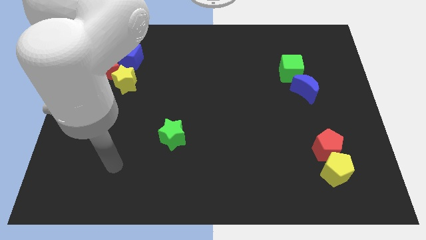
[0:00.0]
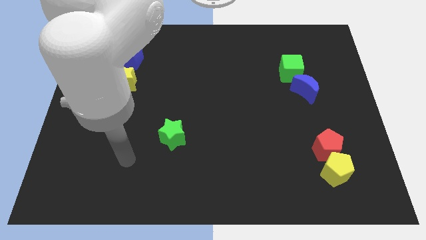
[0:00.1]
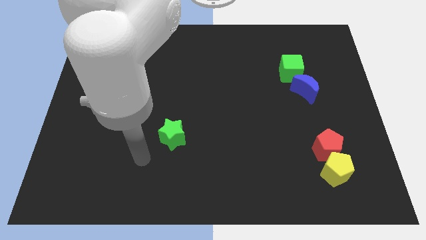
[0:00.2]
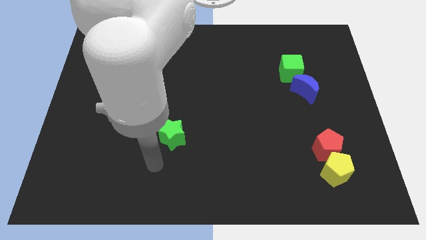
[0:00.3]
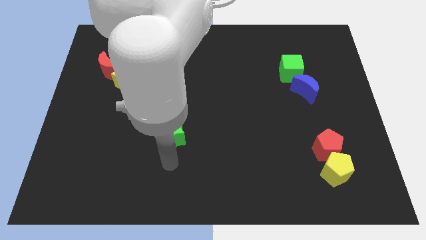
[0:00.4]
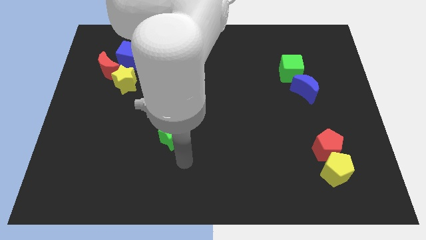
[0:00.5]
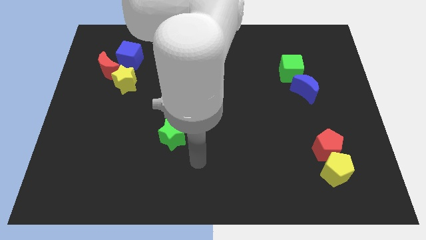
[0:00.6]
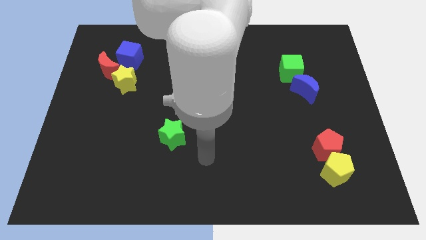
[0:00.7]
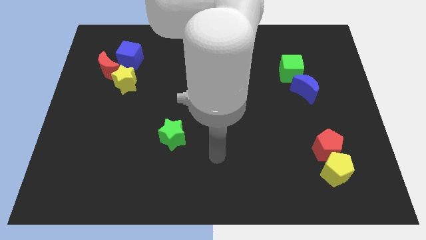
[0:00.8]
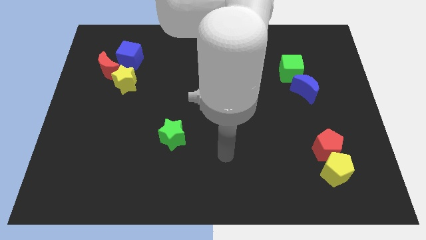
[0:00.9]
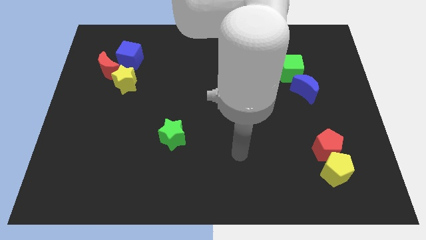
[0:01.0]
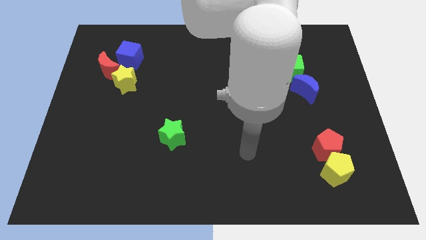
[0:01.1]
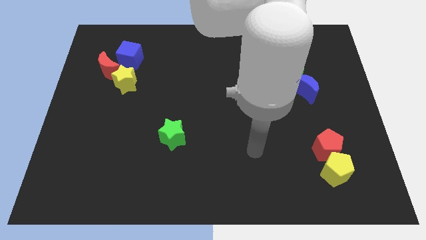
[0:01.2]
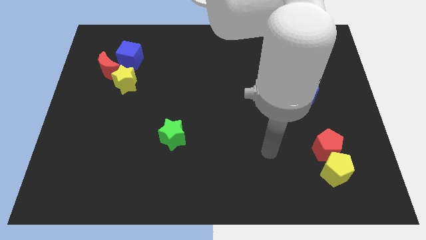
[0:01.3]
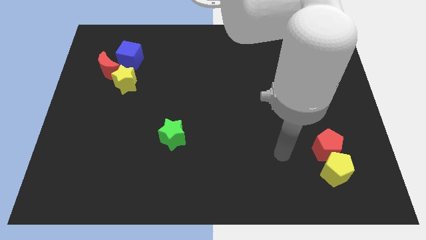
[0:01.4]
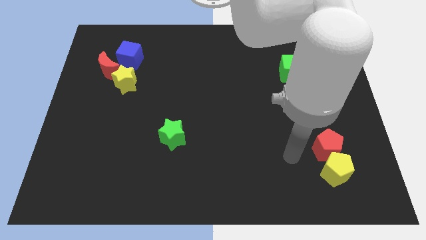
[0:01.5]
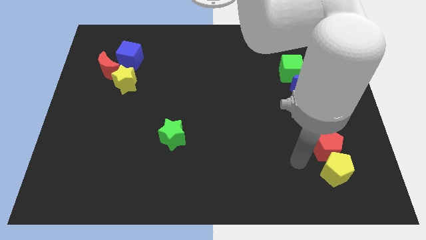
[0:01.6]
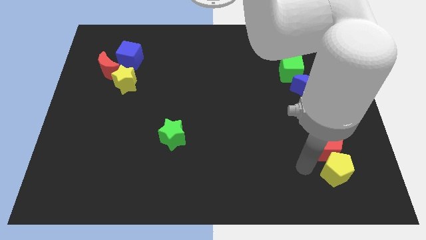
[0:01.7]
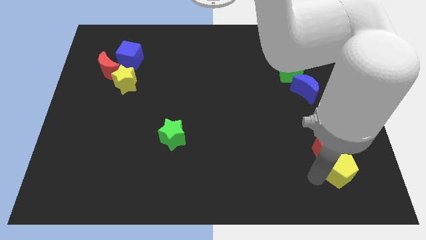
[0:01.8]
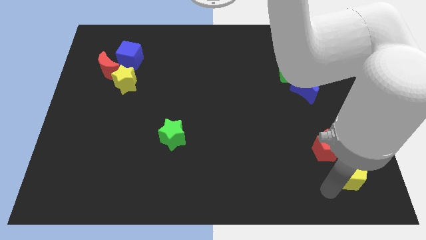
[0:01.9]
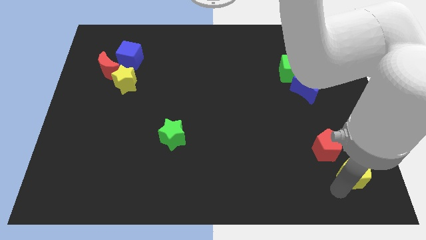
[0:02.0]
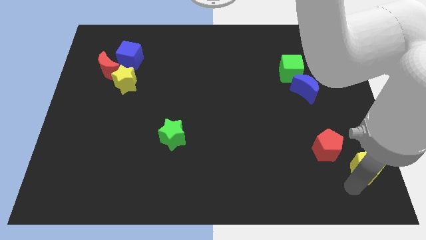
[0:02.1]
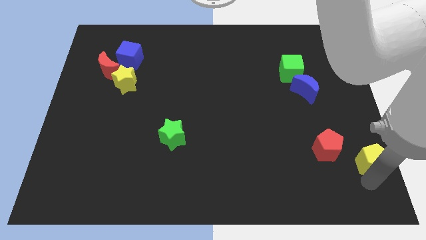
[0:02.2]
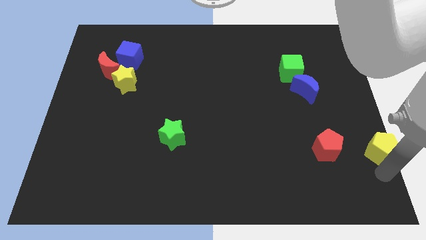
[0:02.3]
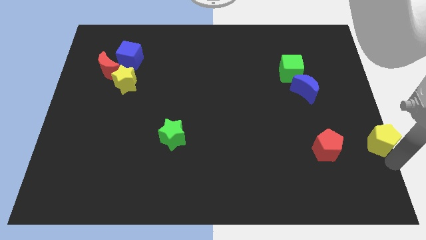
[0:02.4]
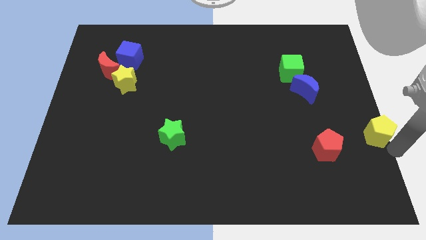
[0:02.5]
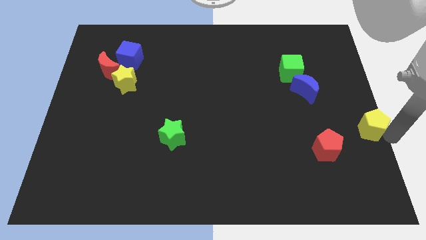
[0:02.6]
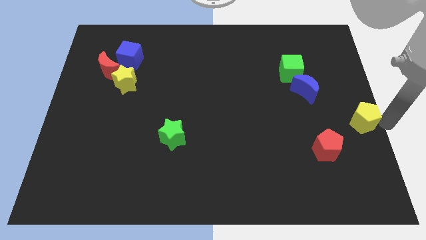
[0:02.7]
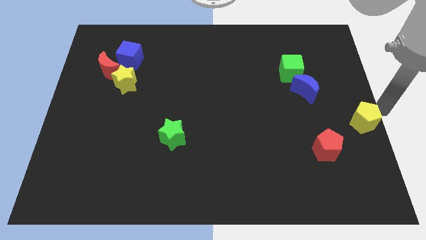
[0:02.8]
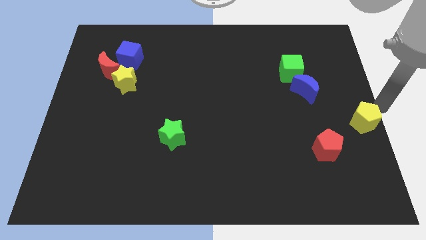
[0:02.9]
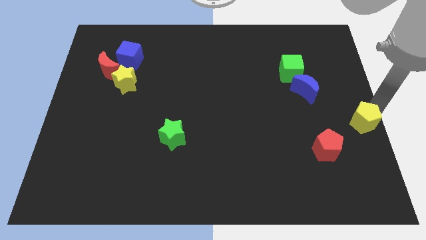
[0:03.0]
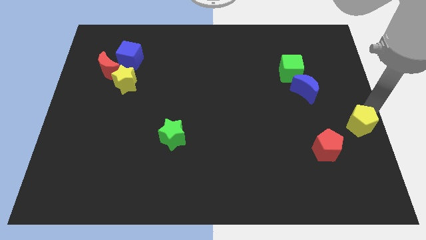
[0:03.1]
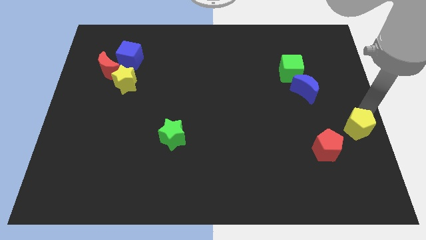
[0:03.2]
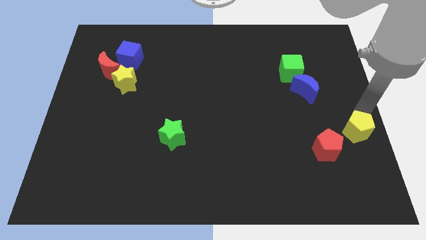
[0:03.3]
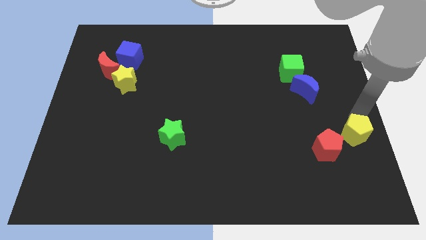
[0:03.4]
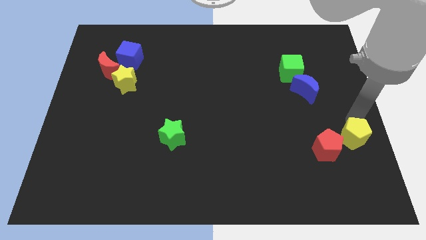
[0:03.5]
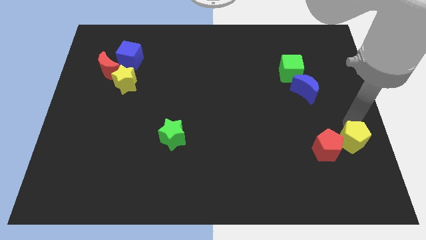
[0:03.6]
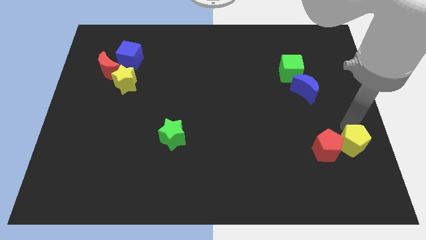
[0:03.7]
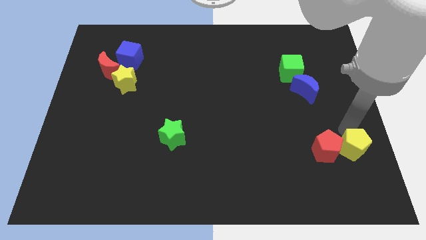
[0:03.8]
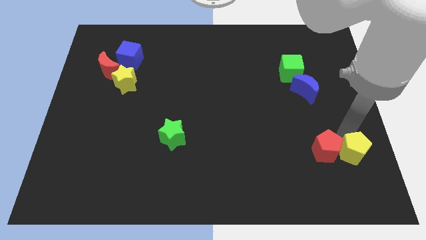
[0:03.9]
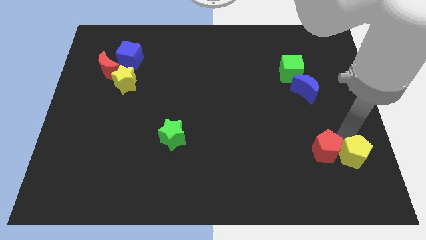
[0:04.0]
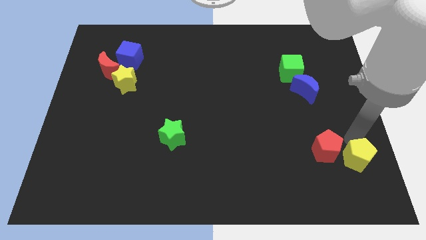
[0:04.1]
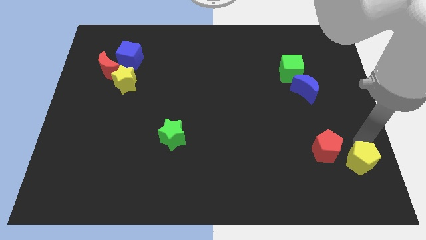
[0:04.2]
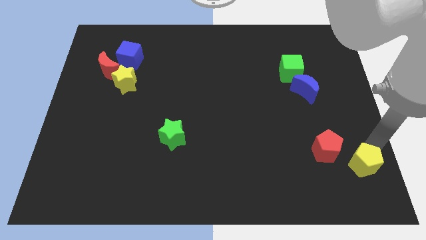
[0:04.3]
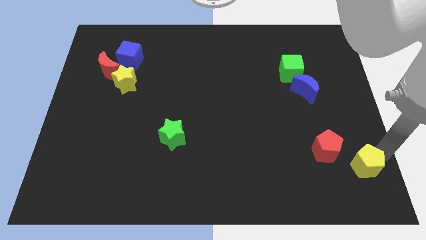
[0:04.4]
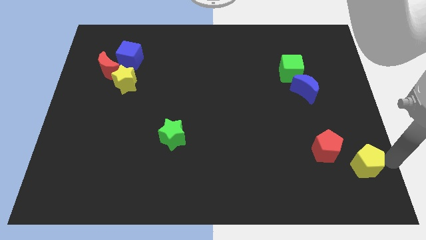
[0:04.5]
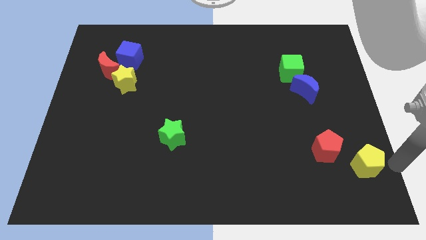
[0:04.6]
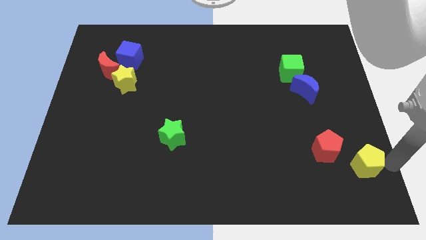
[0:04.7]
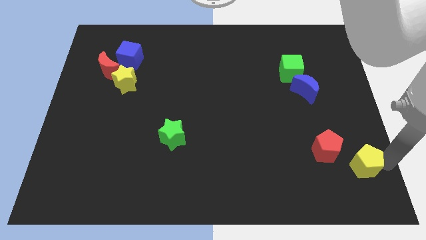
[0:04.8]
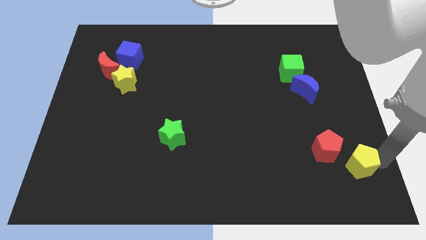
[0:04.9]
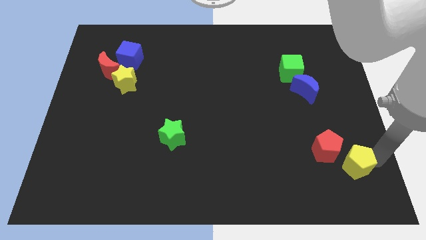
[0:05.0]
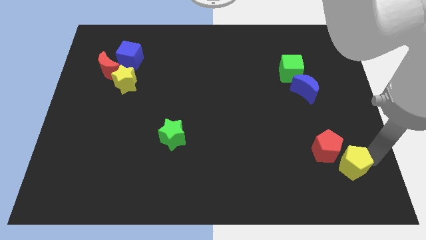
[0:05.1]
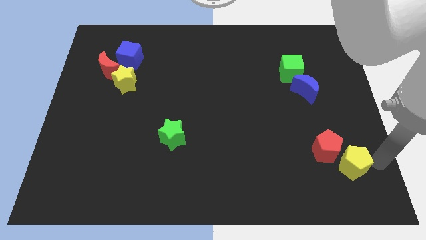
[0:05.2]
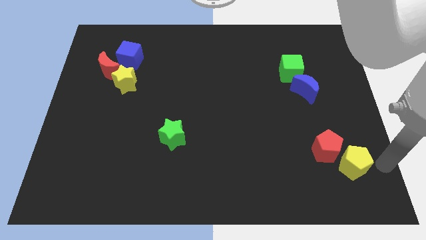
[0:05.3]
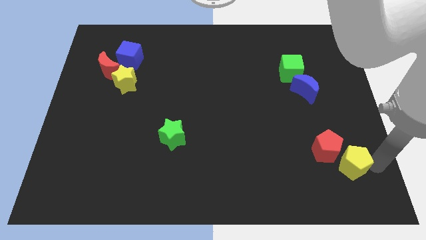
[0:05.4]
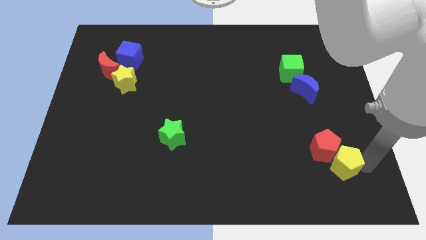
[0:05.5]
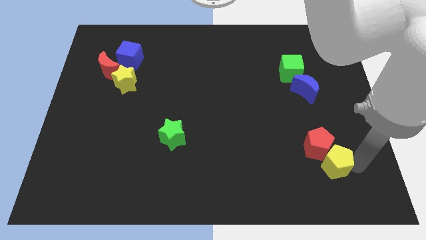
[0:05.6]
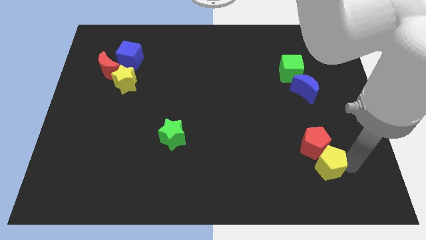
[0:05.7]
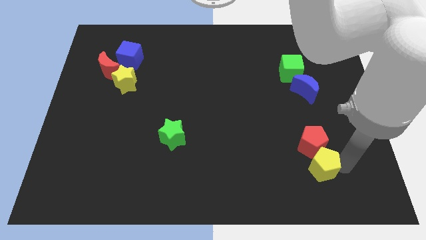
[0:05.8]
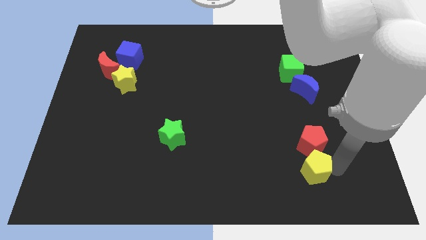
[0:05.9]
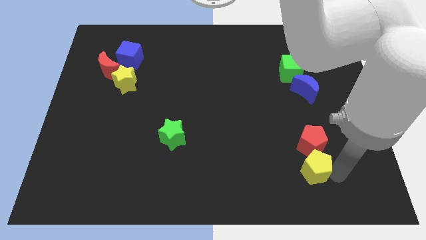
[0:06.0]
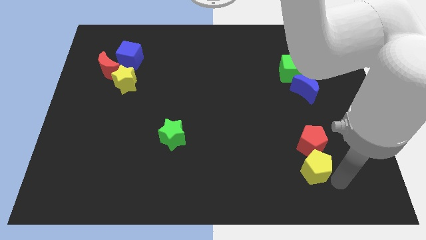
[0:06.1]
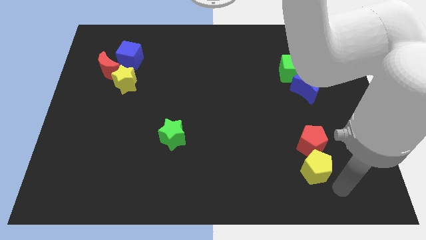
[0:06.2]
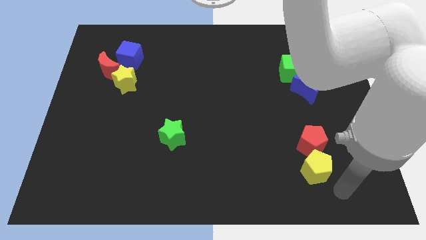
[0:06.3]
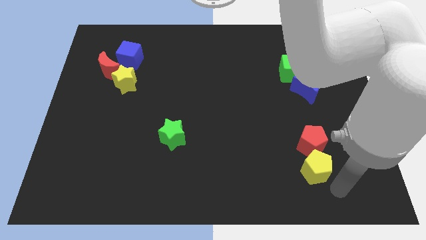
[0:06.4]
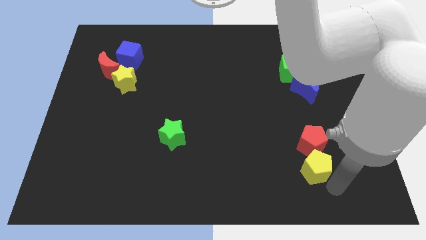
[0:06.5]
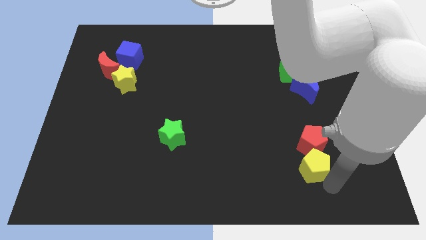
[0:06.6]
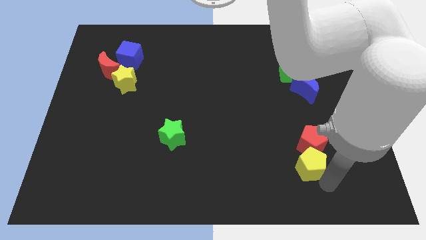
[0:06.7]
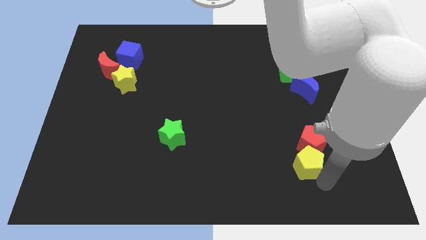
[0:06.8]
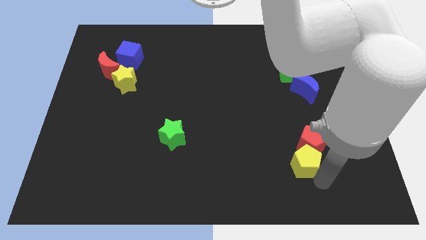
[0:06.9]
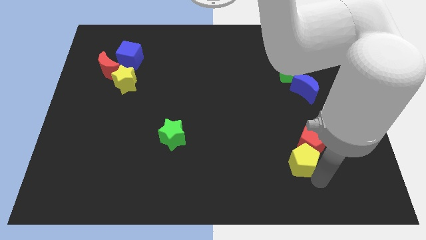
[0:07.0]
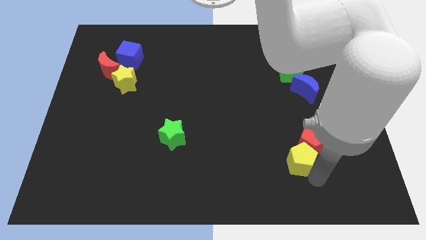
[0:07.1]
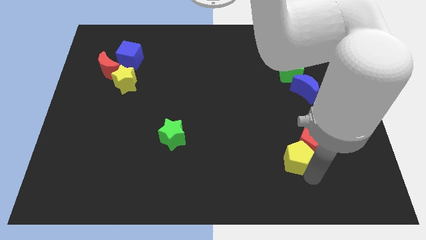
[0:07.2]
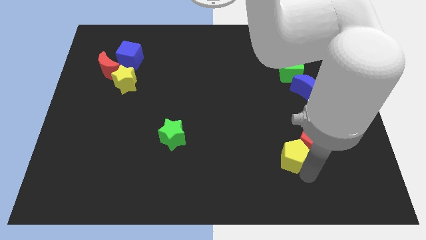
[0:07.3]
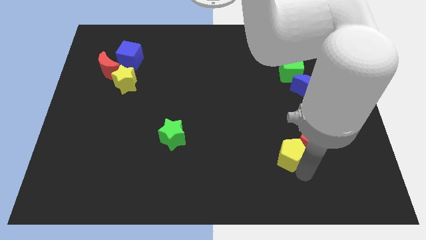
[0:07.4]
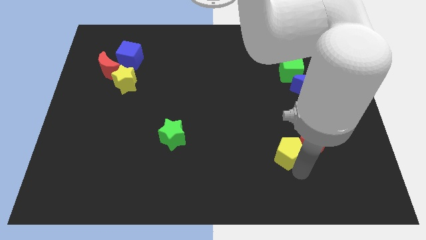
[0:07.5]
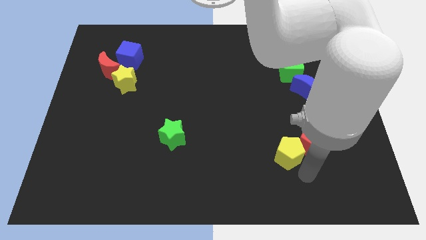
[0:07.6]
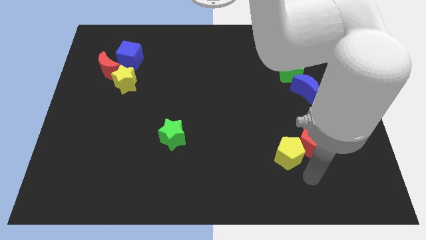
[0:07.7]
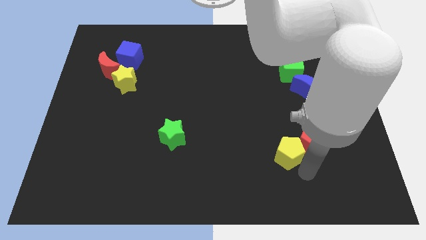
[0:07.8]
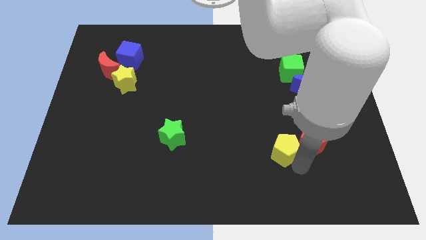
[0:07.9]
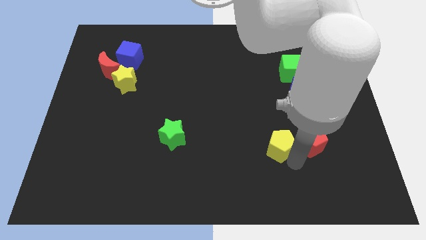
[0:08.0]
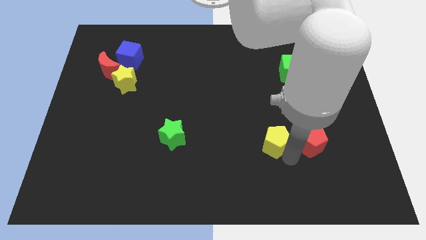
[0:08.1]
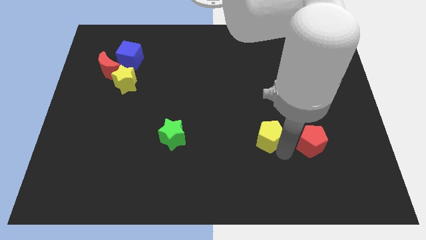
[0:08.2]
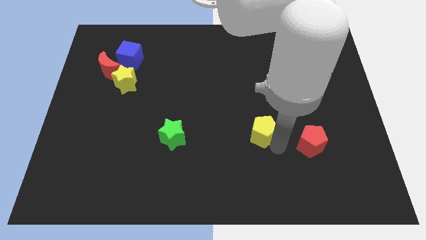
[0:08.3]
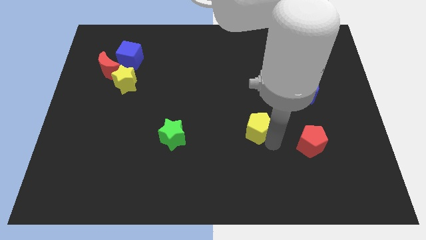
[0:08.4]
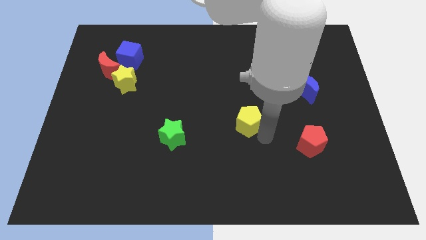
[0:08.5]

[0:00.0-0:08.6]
push the yellow pentagon up and left
